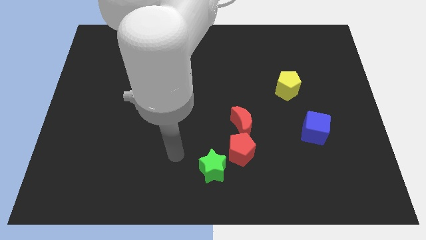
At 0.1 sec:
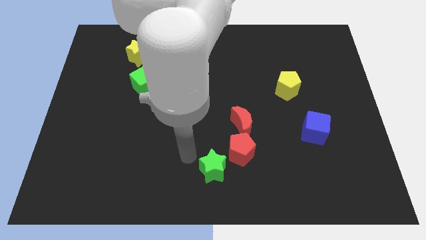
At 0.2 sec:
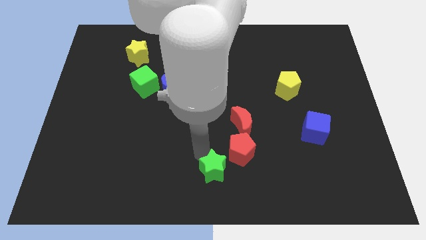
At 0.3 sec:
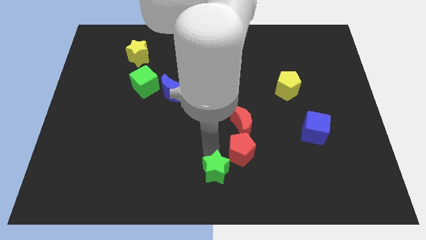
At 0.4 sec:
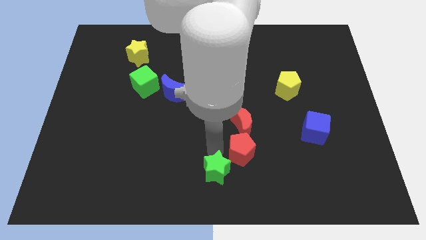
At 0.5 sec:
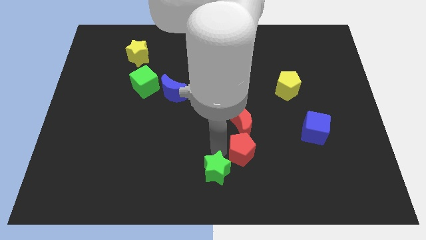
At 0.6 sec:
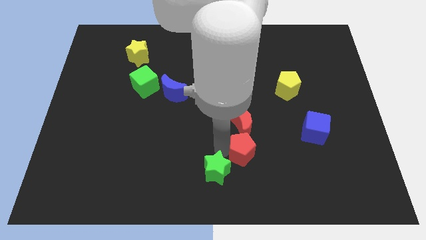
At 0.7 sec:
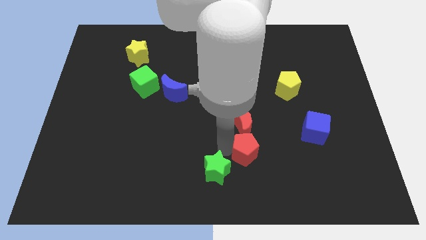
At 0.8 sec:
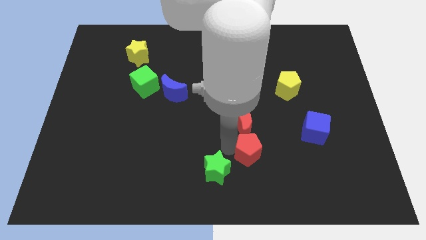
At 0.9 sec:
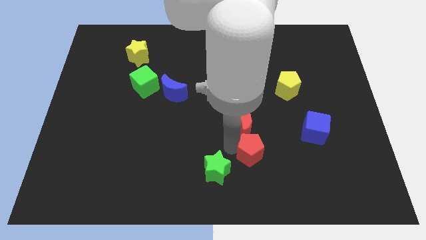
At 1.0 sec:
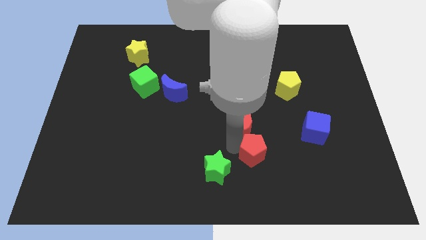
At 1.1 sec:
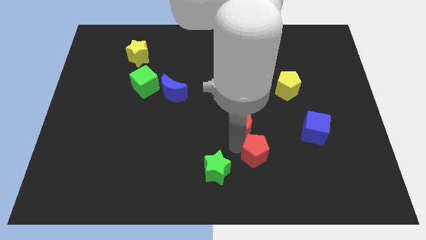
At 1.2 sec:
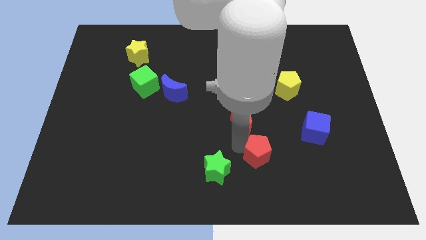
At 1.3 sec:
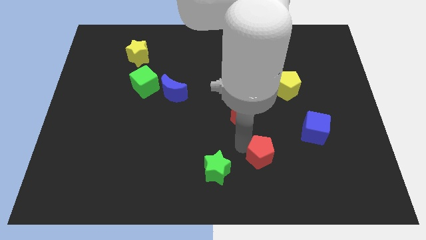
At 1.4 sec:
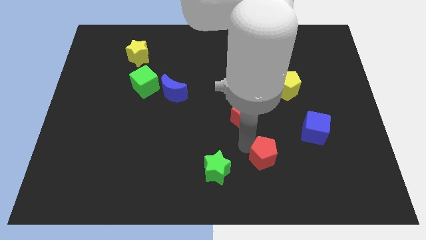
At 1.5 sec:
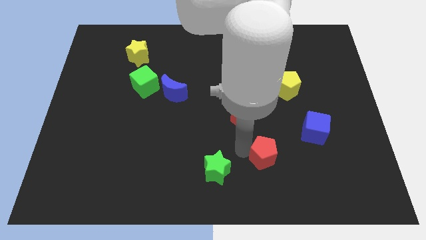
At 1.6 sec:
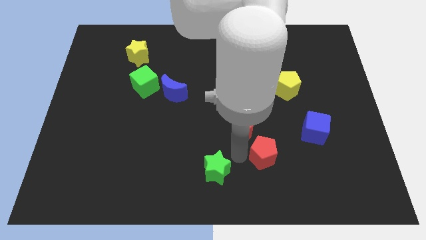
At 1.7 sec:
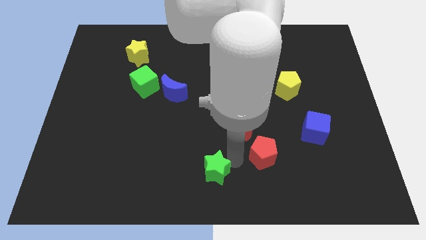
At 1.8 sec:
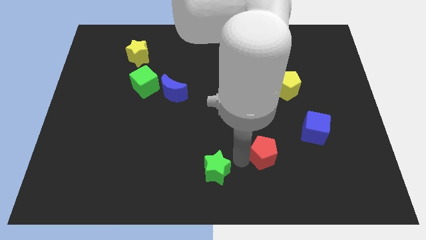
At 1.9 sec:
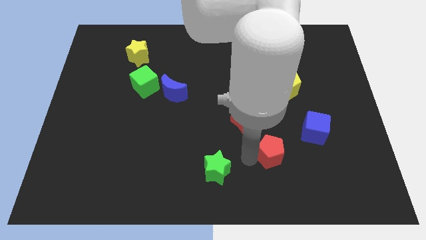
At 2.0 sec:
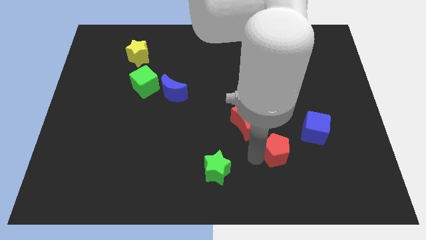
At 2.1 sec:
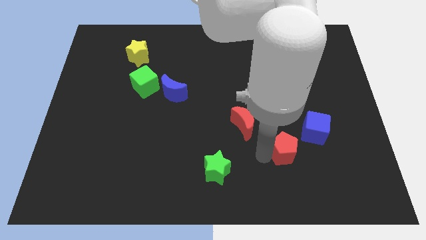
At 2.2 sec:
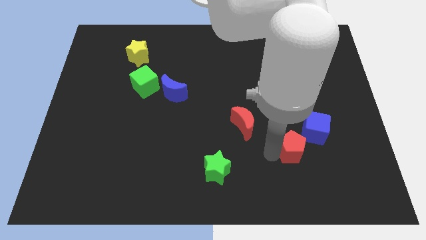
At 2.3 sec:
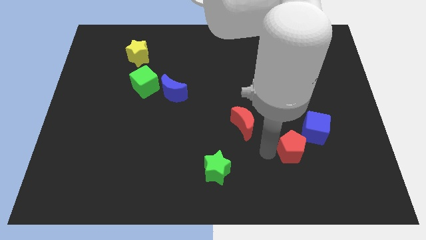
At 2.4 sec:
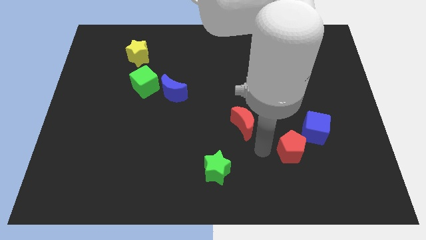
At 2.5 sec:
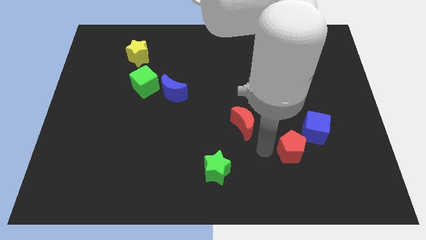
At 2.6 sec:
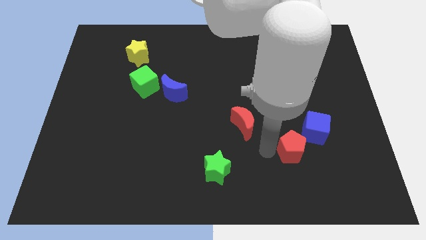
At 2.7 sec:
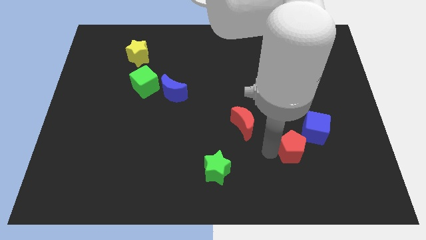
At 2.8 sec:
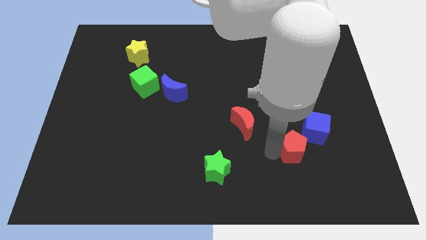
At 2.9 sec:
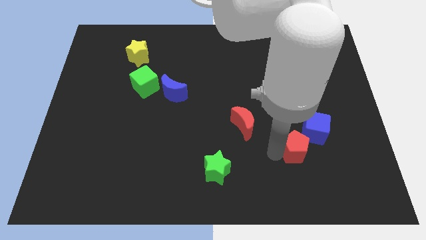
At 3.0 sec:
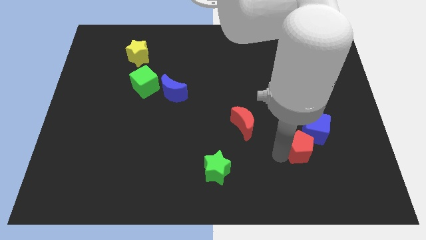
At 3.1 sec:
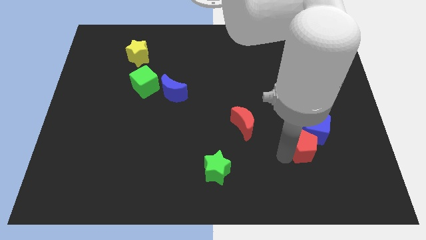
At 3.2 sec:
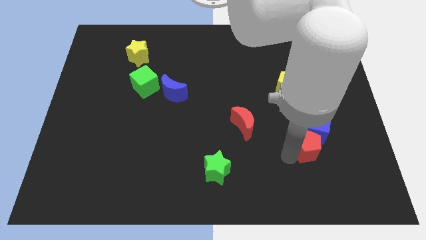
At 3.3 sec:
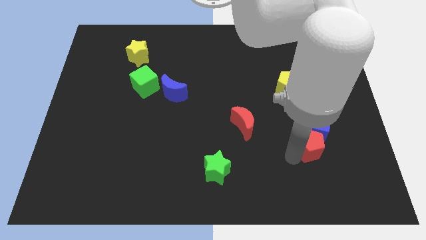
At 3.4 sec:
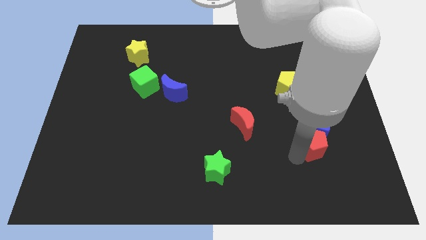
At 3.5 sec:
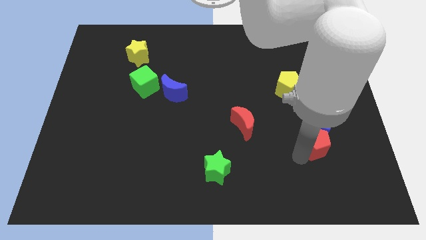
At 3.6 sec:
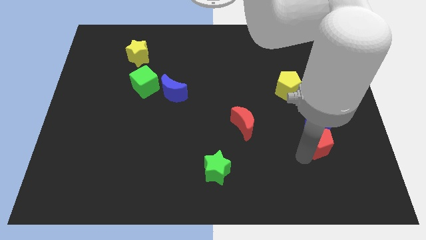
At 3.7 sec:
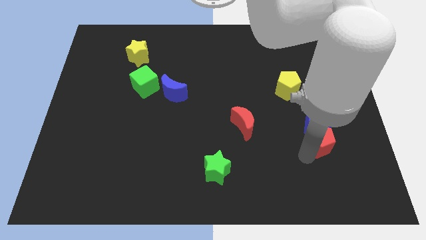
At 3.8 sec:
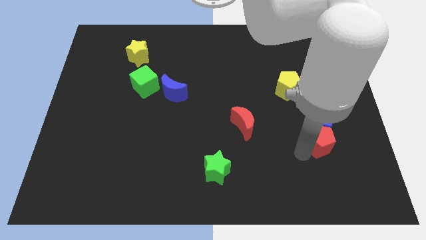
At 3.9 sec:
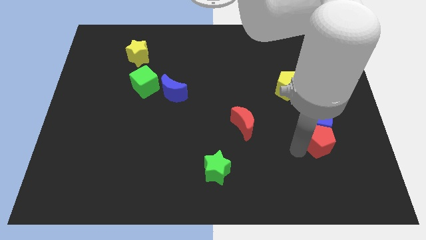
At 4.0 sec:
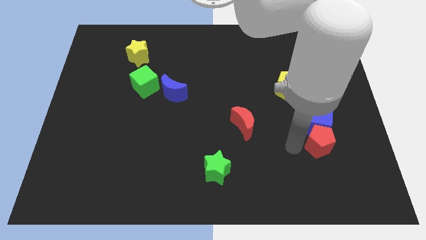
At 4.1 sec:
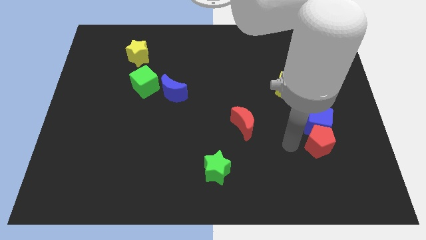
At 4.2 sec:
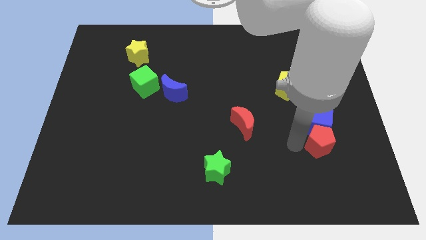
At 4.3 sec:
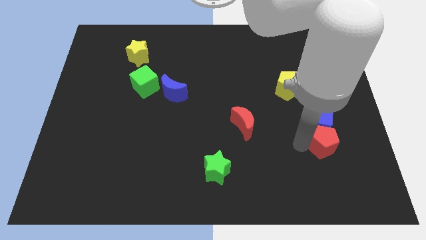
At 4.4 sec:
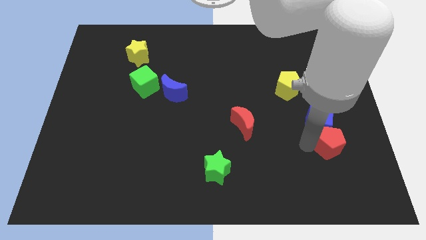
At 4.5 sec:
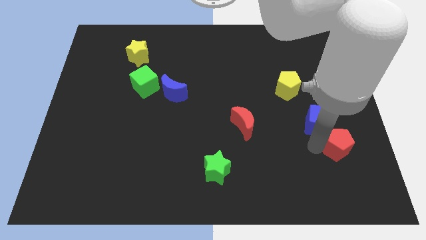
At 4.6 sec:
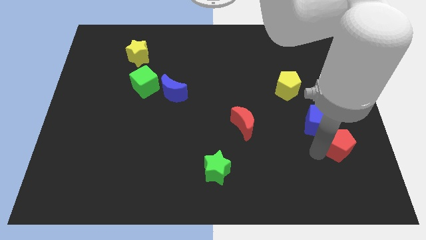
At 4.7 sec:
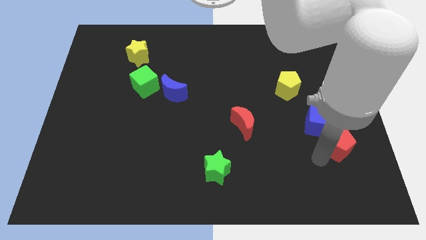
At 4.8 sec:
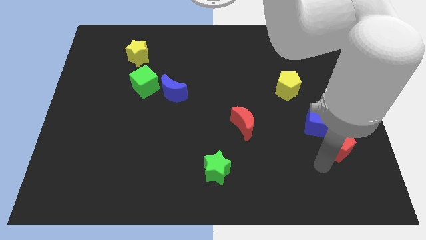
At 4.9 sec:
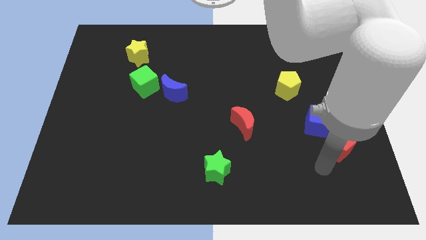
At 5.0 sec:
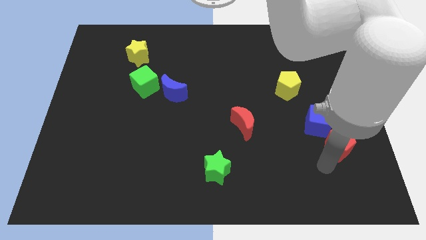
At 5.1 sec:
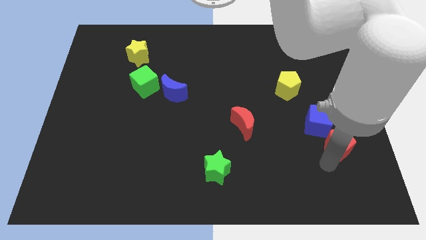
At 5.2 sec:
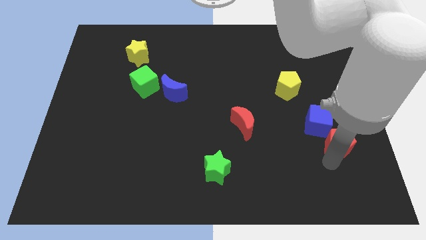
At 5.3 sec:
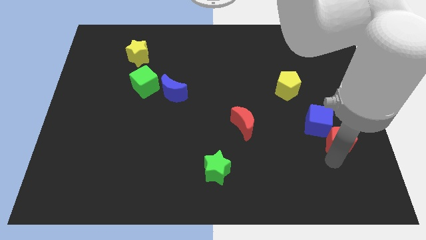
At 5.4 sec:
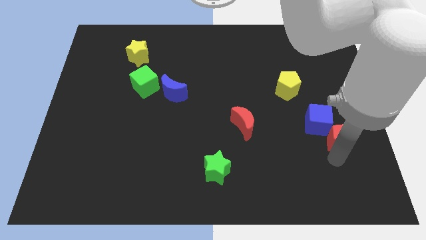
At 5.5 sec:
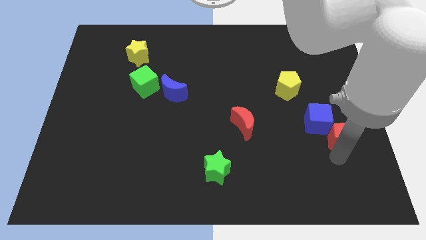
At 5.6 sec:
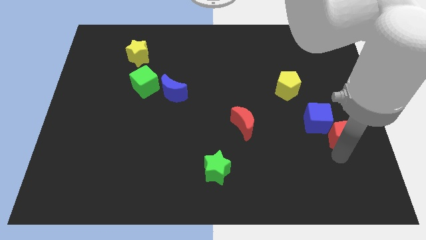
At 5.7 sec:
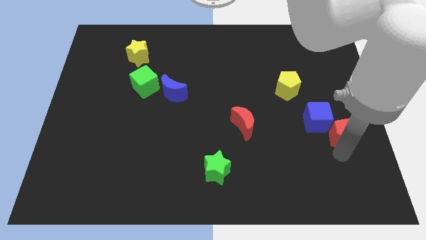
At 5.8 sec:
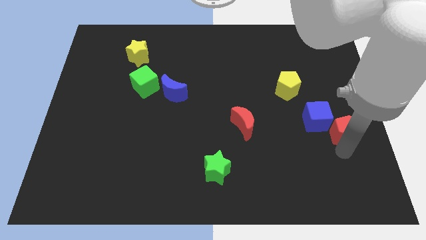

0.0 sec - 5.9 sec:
put the red pentagon to the right side

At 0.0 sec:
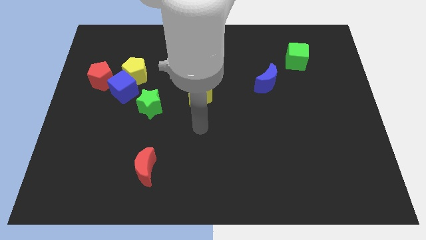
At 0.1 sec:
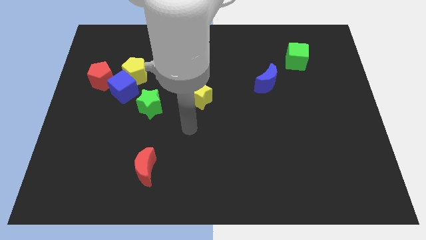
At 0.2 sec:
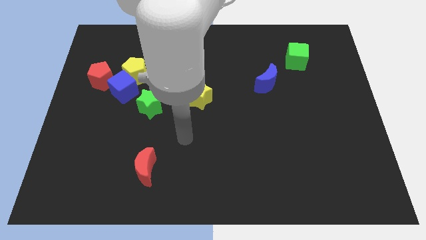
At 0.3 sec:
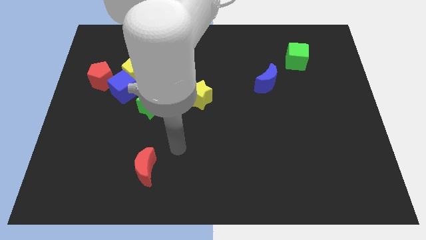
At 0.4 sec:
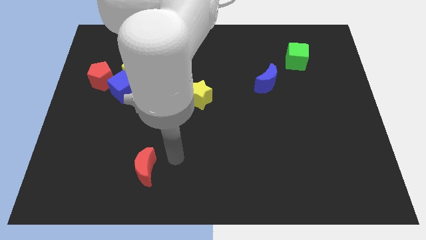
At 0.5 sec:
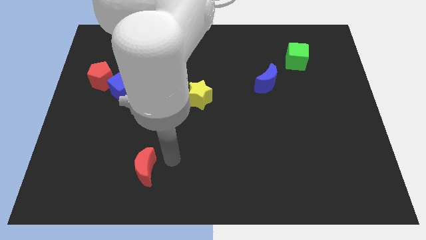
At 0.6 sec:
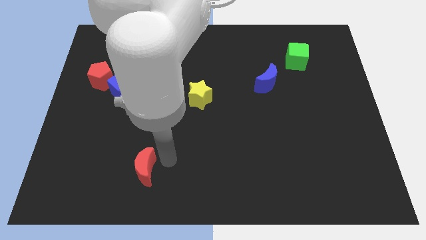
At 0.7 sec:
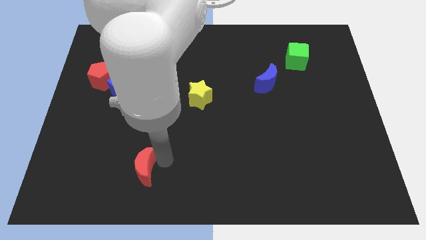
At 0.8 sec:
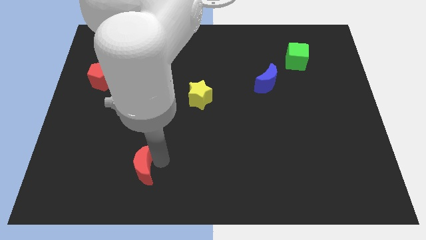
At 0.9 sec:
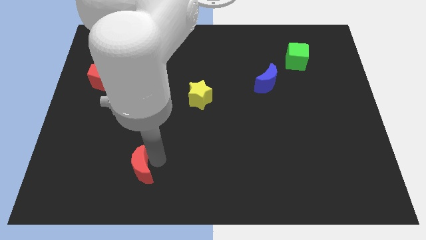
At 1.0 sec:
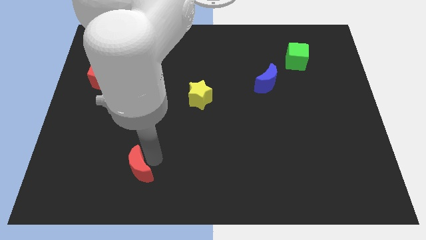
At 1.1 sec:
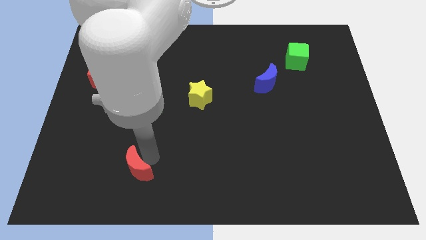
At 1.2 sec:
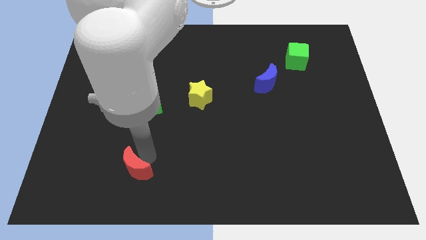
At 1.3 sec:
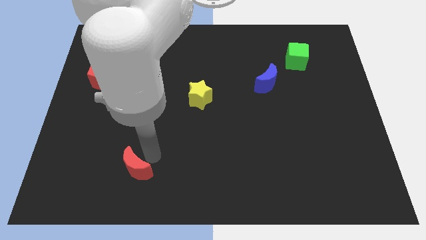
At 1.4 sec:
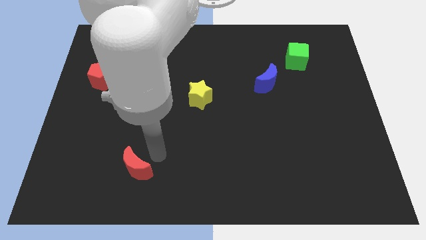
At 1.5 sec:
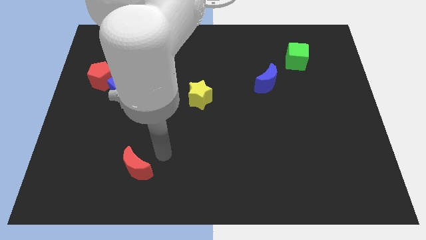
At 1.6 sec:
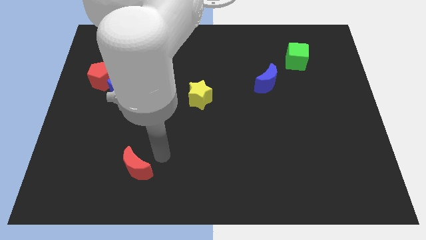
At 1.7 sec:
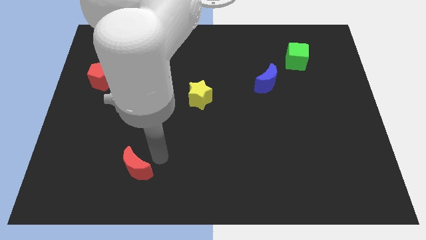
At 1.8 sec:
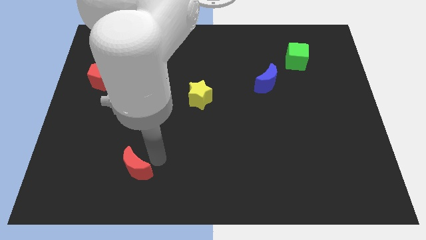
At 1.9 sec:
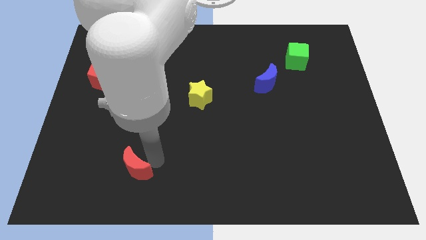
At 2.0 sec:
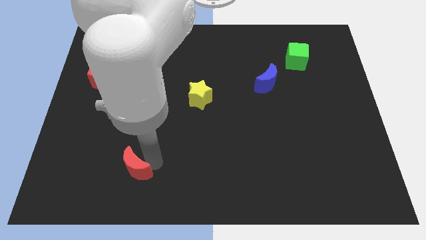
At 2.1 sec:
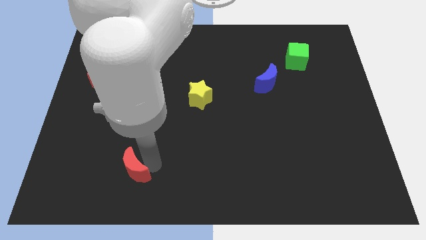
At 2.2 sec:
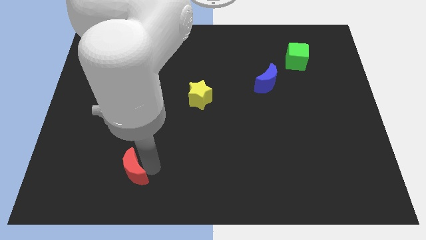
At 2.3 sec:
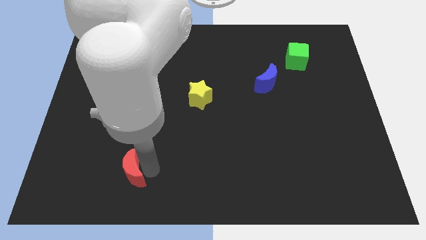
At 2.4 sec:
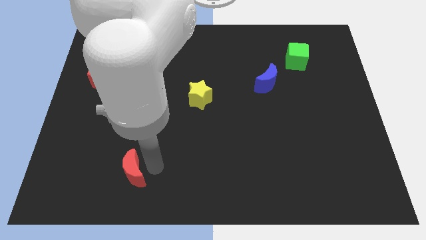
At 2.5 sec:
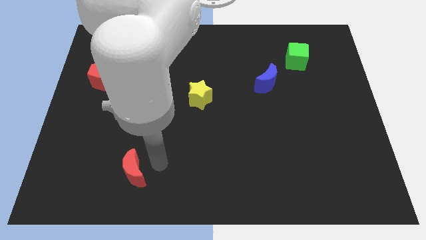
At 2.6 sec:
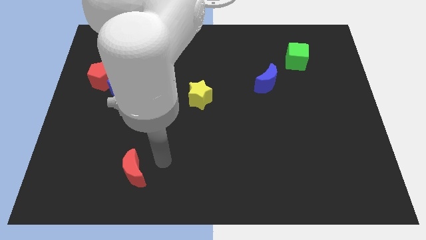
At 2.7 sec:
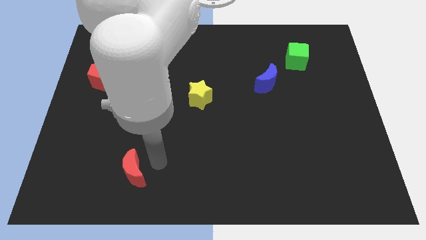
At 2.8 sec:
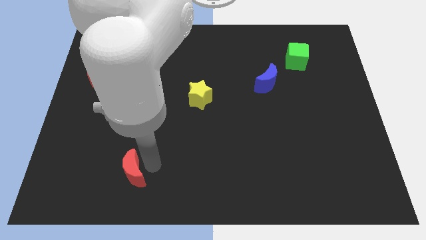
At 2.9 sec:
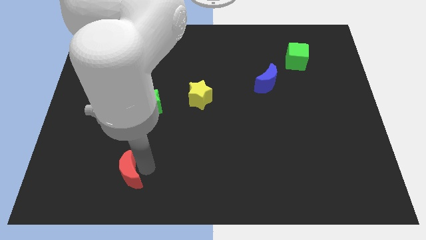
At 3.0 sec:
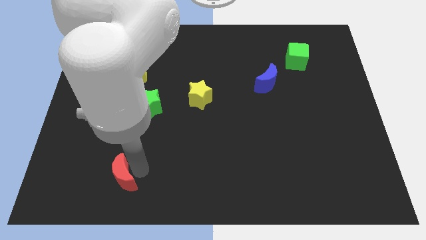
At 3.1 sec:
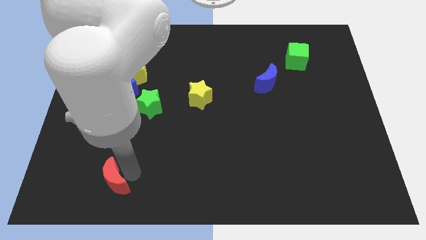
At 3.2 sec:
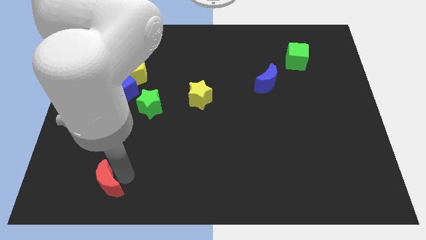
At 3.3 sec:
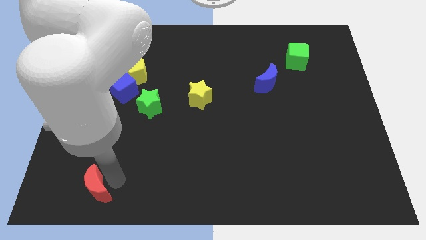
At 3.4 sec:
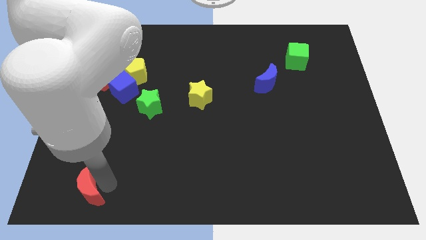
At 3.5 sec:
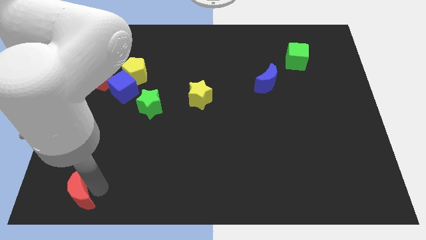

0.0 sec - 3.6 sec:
slide the red moon to the bottom left
